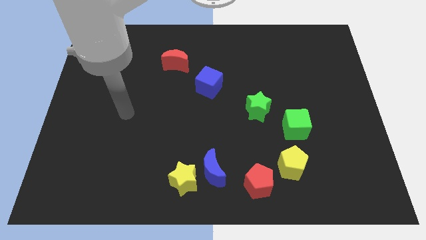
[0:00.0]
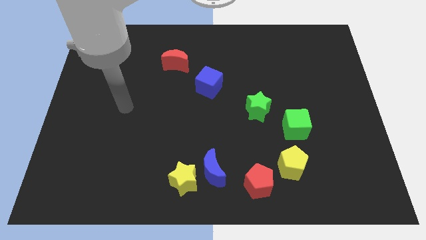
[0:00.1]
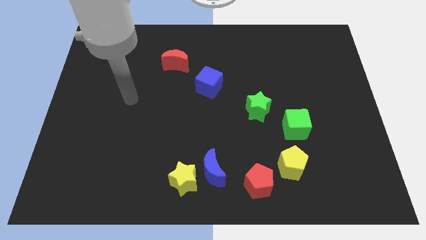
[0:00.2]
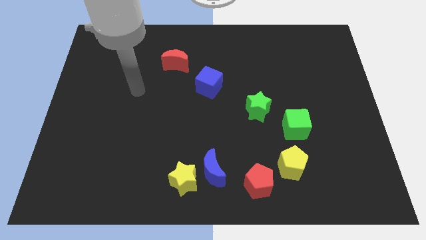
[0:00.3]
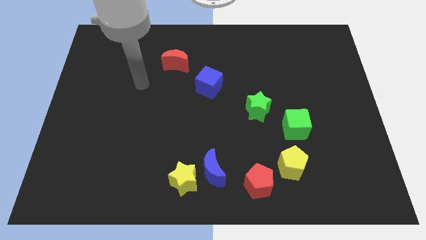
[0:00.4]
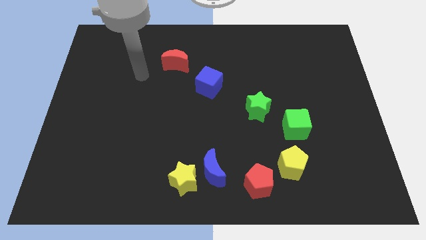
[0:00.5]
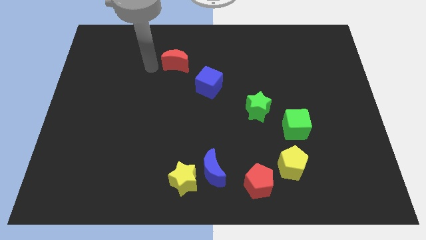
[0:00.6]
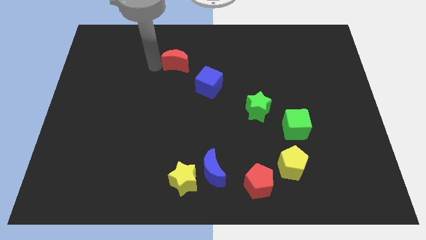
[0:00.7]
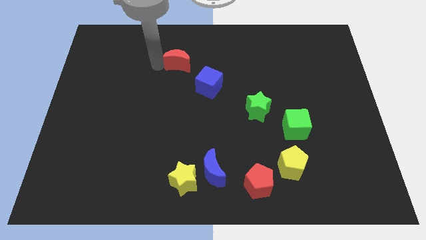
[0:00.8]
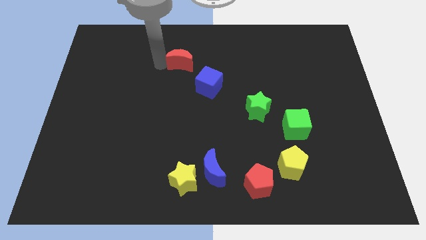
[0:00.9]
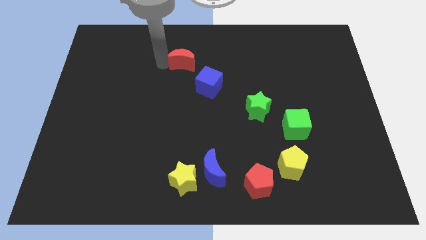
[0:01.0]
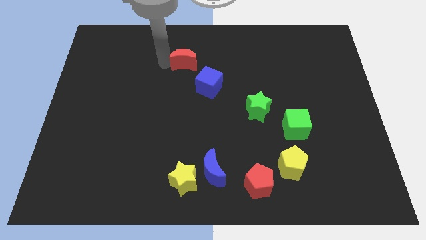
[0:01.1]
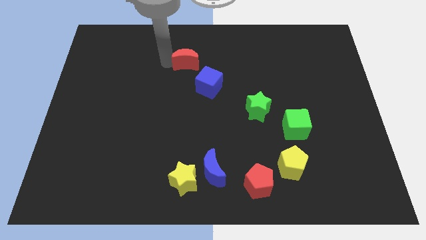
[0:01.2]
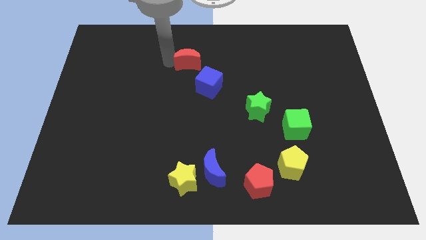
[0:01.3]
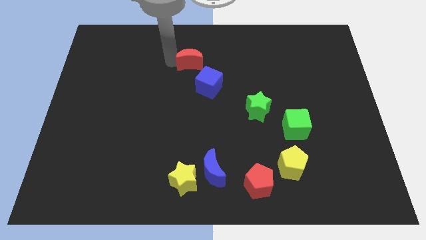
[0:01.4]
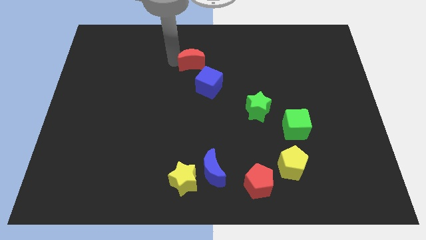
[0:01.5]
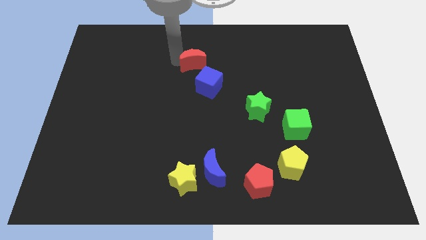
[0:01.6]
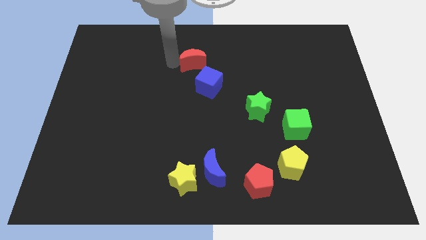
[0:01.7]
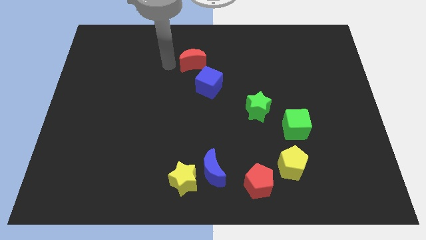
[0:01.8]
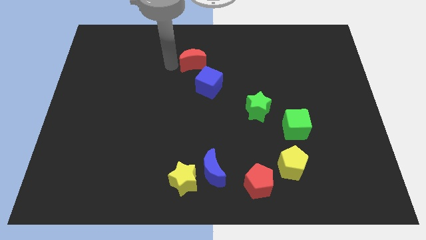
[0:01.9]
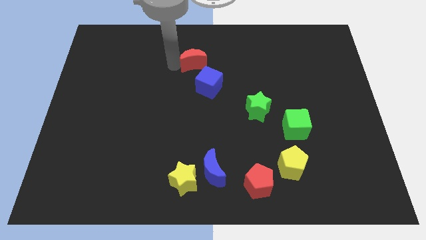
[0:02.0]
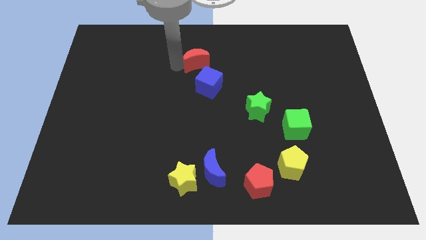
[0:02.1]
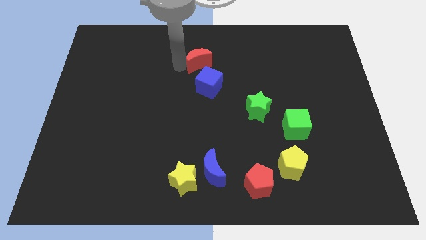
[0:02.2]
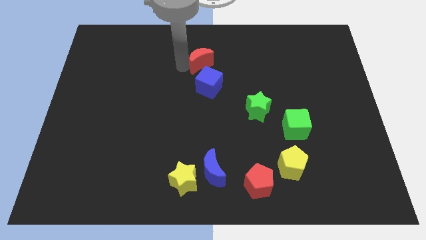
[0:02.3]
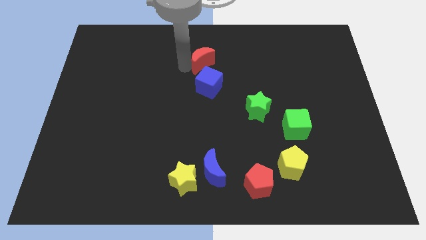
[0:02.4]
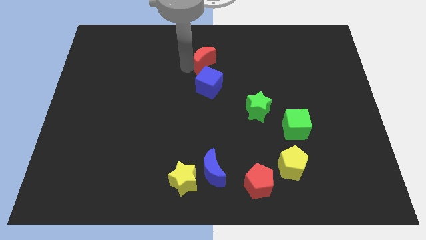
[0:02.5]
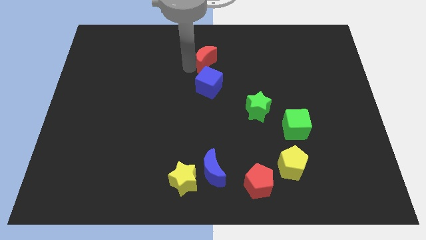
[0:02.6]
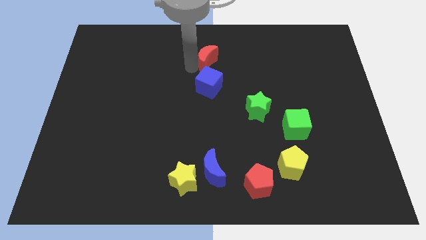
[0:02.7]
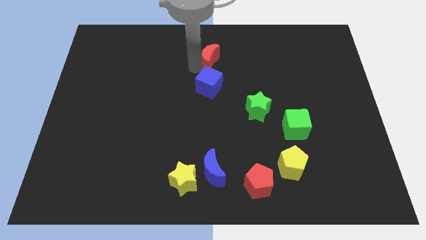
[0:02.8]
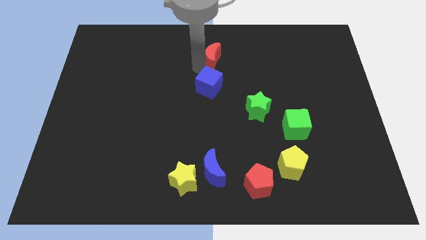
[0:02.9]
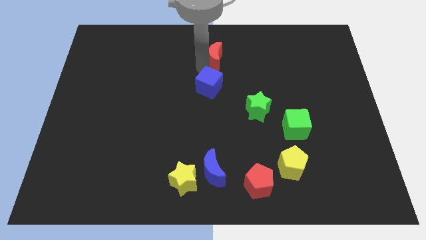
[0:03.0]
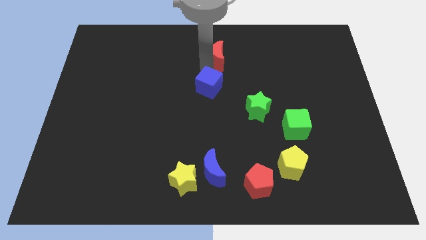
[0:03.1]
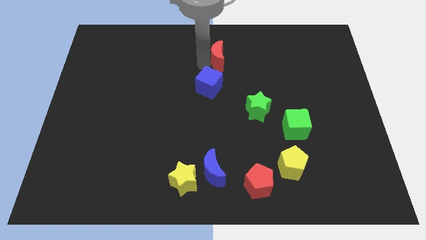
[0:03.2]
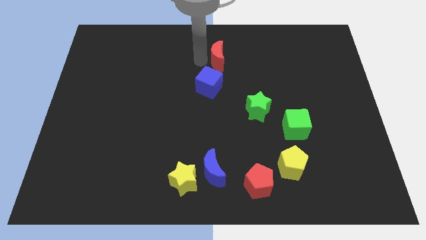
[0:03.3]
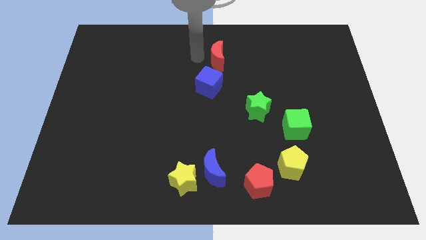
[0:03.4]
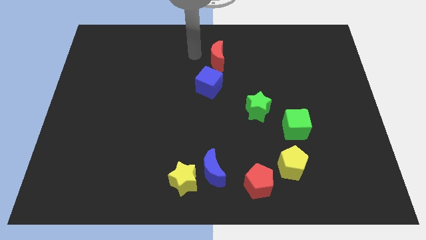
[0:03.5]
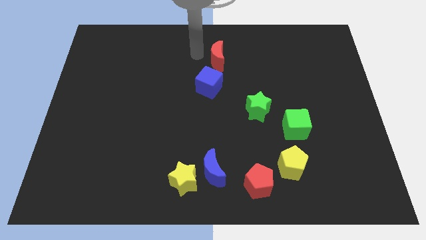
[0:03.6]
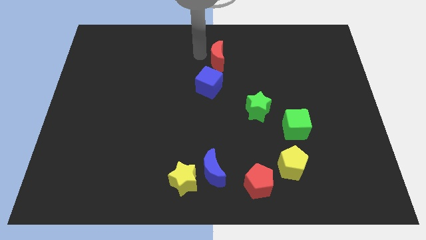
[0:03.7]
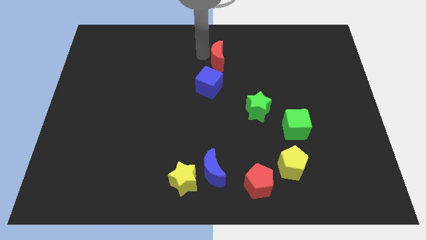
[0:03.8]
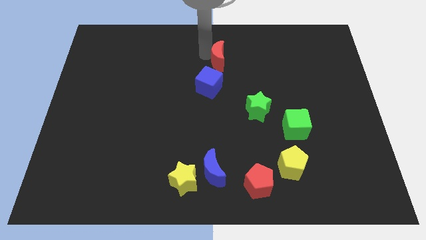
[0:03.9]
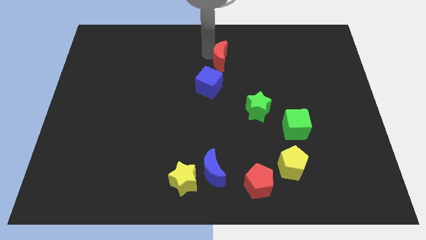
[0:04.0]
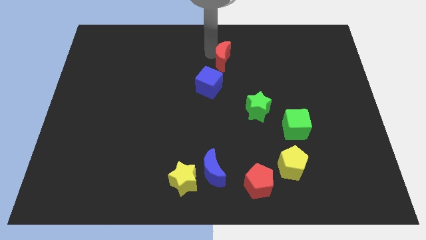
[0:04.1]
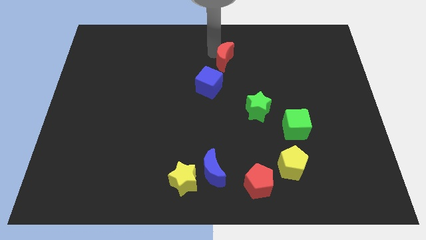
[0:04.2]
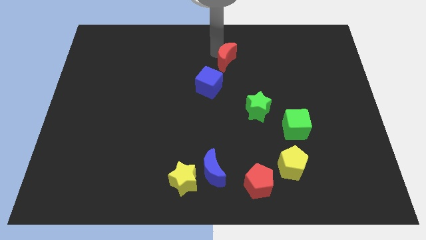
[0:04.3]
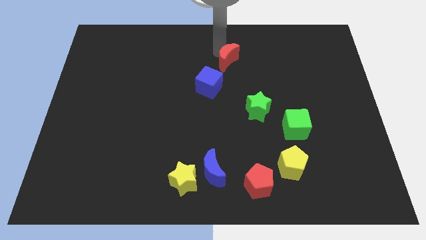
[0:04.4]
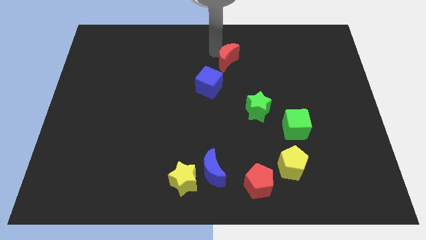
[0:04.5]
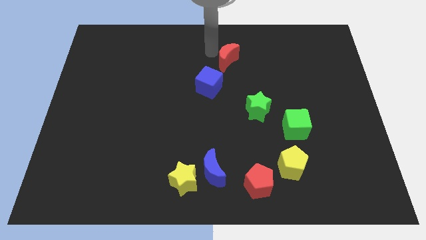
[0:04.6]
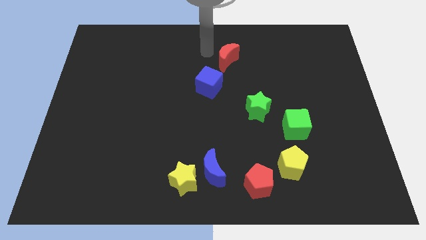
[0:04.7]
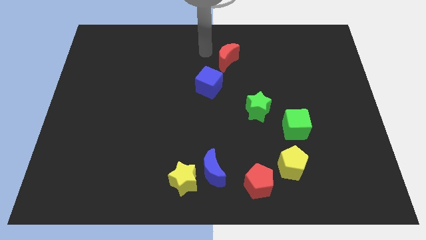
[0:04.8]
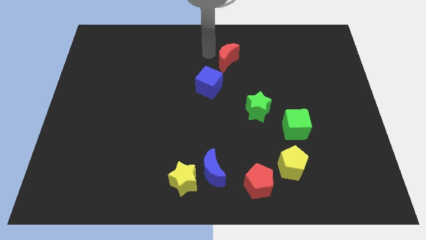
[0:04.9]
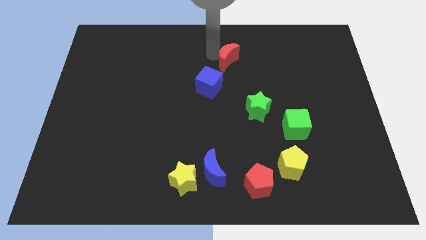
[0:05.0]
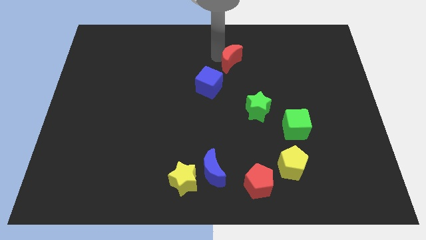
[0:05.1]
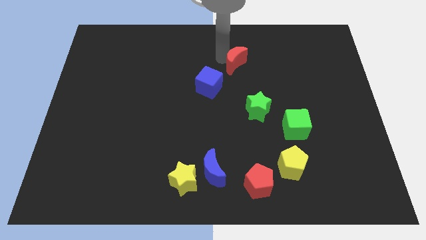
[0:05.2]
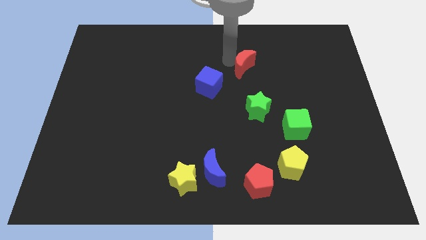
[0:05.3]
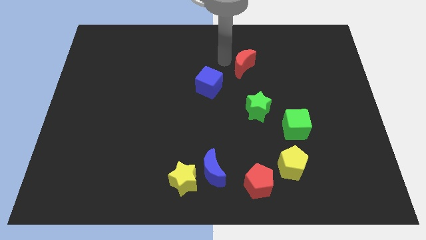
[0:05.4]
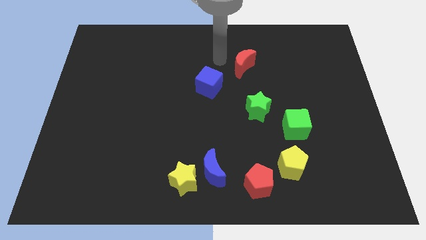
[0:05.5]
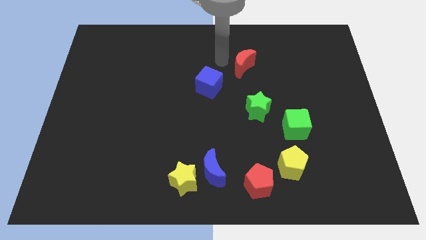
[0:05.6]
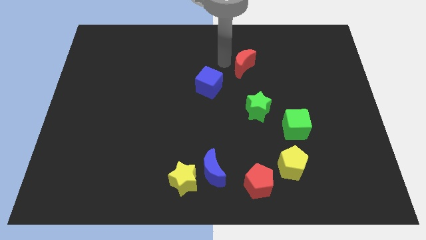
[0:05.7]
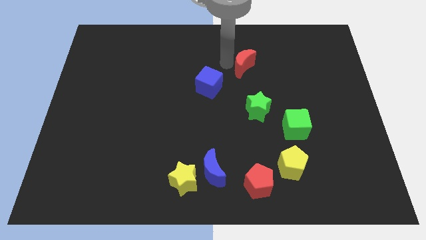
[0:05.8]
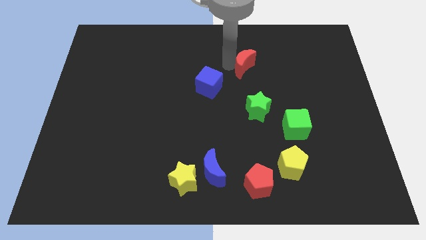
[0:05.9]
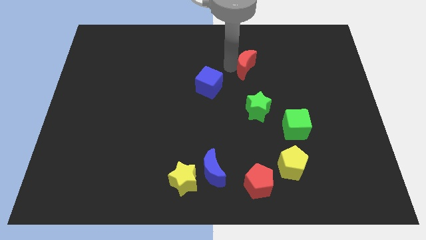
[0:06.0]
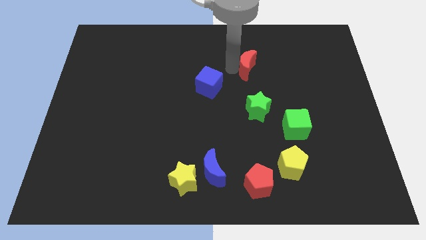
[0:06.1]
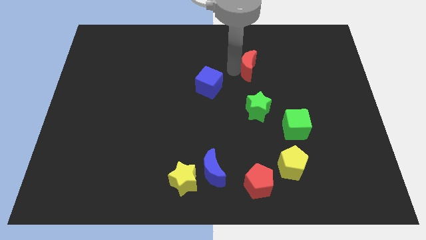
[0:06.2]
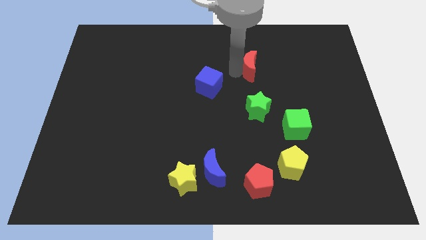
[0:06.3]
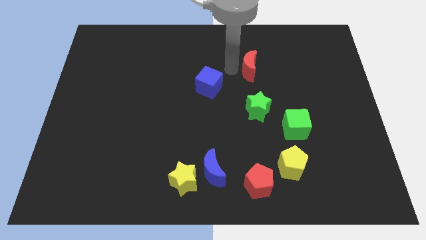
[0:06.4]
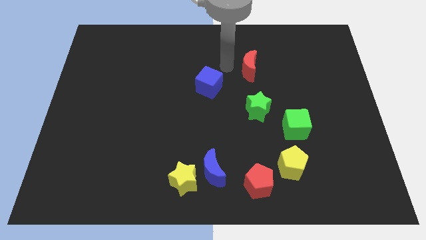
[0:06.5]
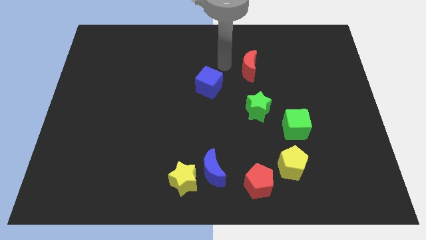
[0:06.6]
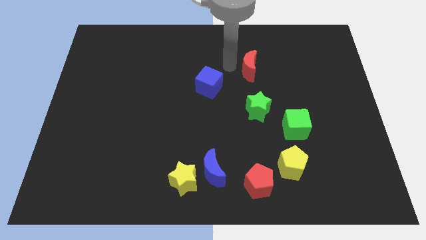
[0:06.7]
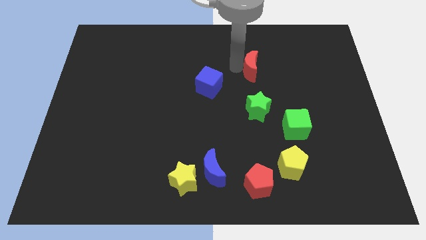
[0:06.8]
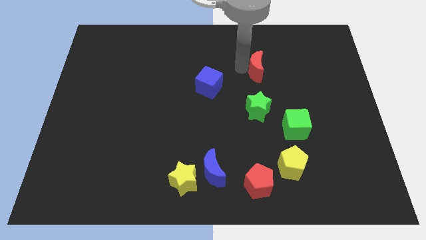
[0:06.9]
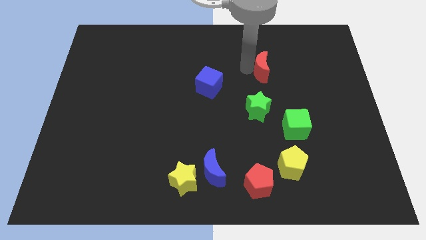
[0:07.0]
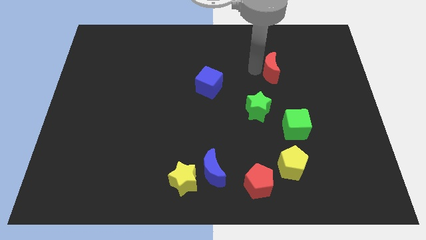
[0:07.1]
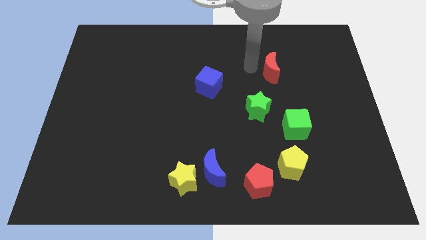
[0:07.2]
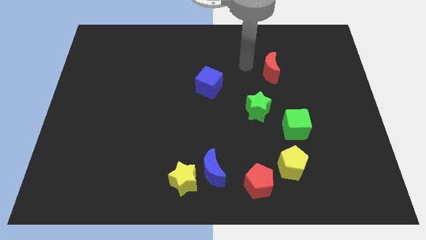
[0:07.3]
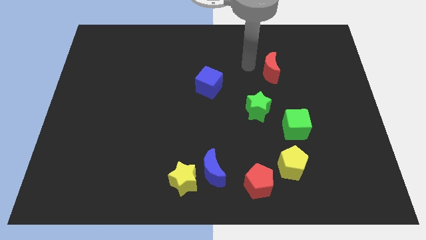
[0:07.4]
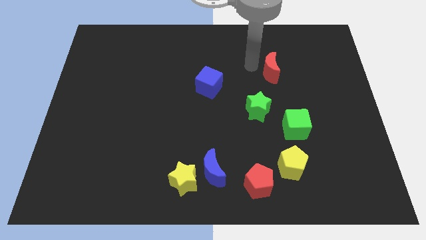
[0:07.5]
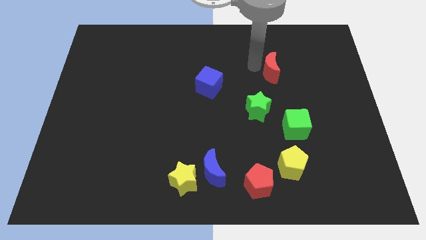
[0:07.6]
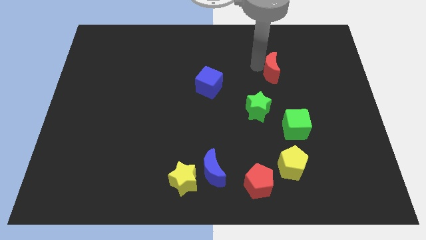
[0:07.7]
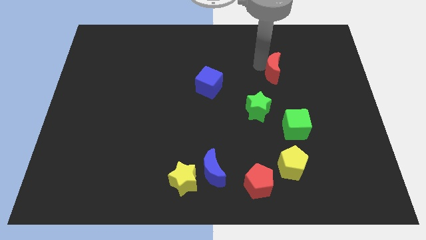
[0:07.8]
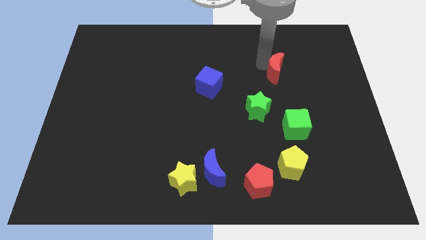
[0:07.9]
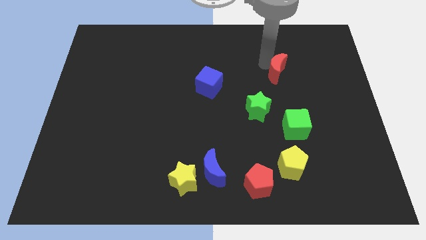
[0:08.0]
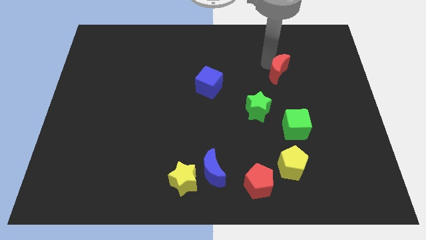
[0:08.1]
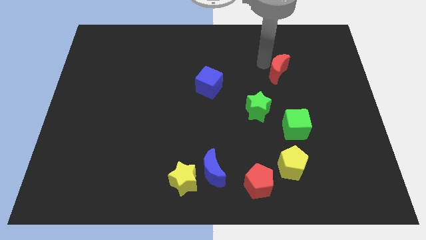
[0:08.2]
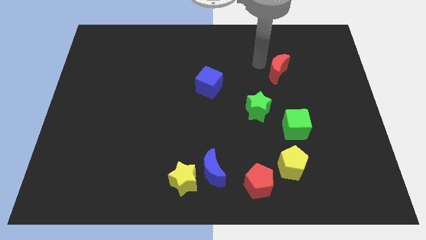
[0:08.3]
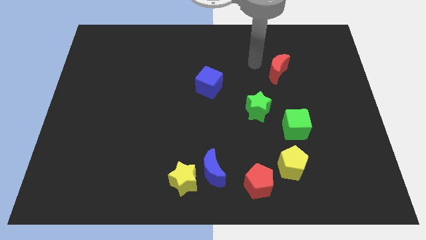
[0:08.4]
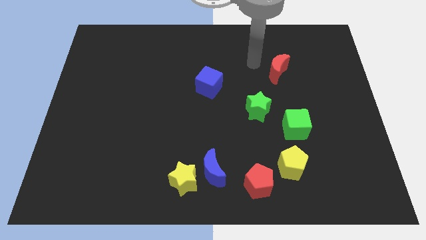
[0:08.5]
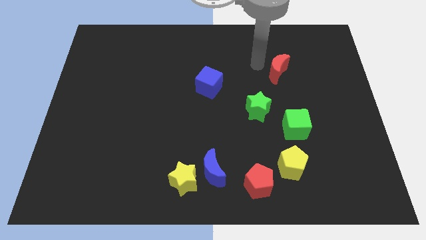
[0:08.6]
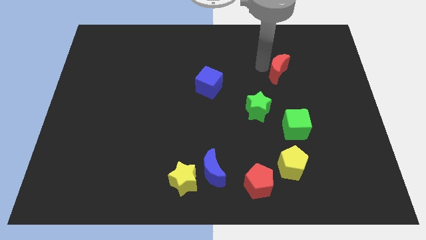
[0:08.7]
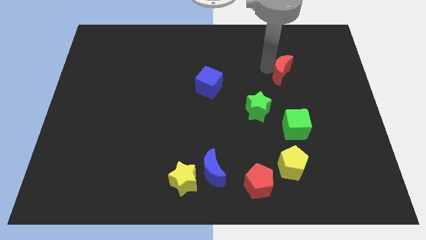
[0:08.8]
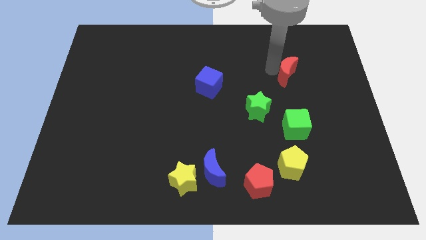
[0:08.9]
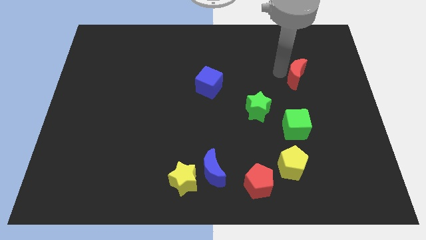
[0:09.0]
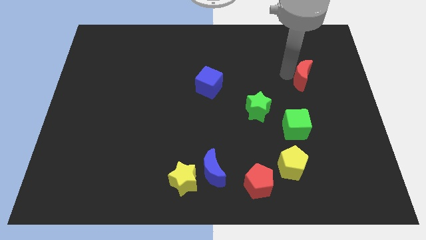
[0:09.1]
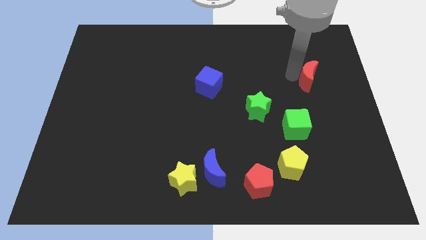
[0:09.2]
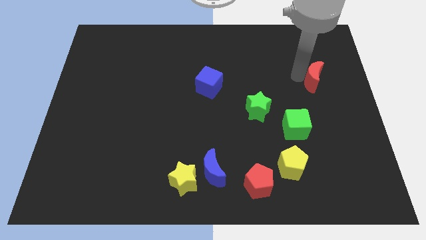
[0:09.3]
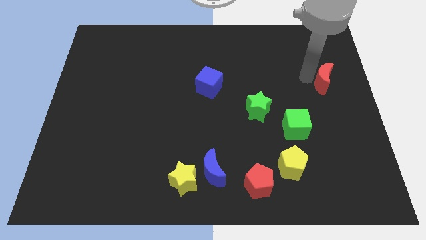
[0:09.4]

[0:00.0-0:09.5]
slide the red moon to the center right
